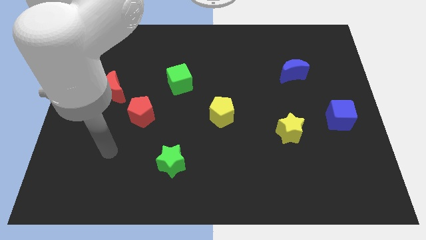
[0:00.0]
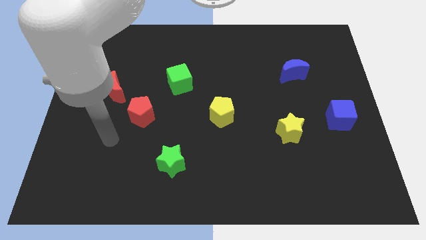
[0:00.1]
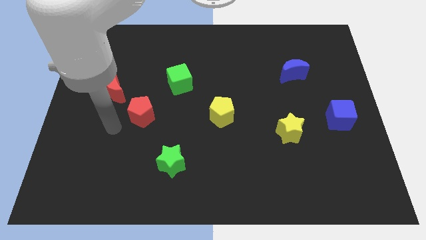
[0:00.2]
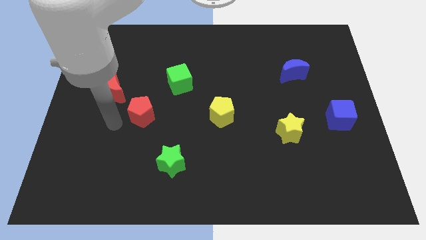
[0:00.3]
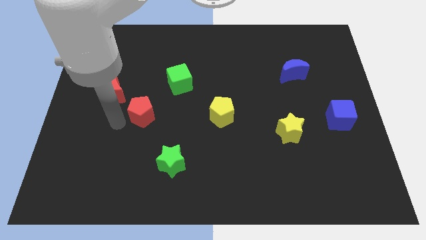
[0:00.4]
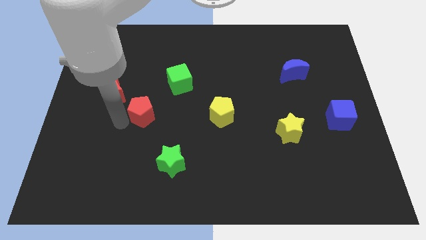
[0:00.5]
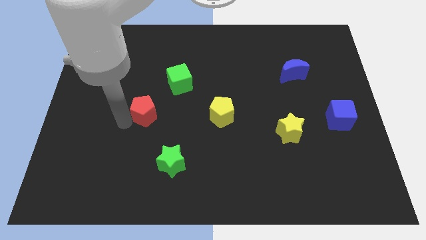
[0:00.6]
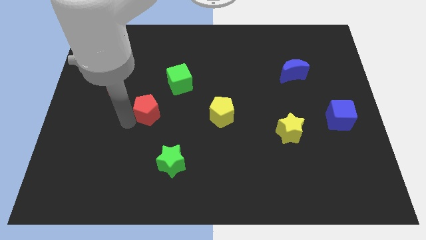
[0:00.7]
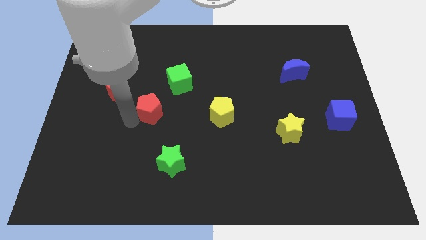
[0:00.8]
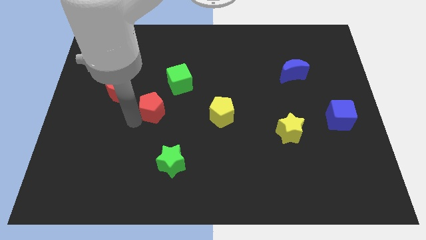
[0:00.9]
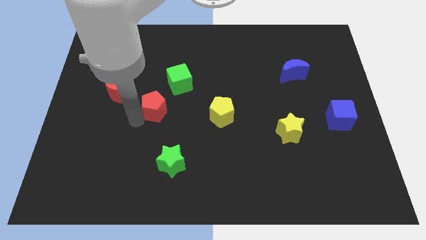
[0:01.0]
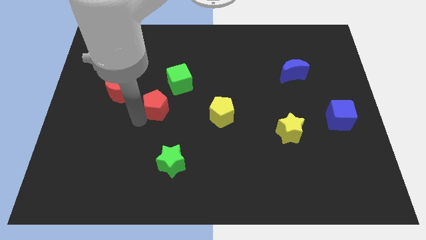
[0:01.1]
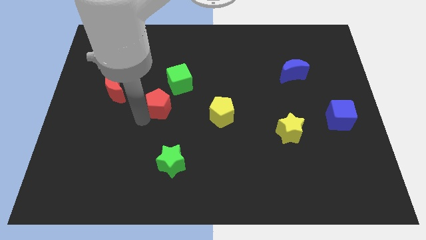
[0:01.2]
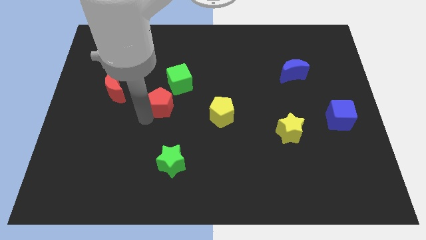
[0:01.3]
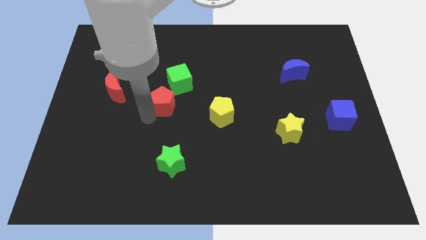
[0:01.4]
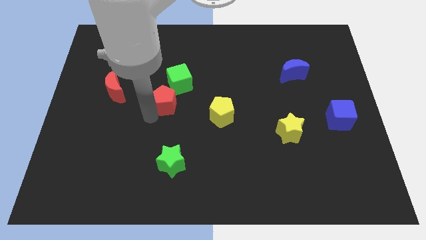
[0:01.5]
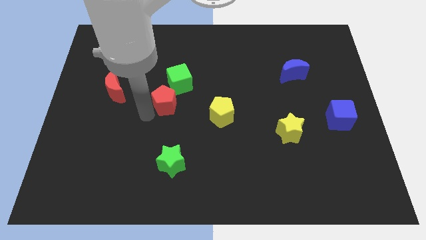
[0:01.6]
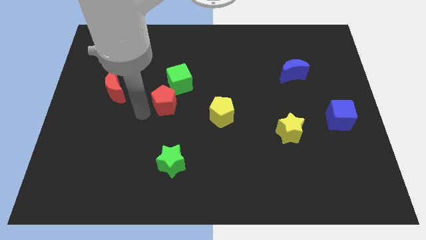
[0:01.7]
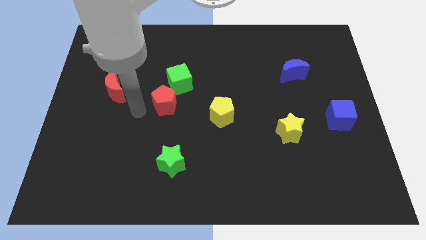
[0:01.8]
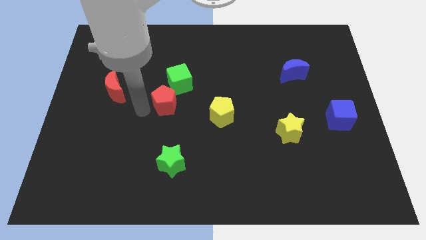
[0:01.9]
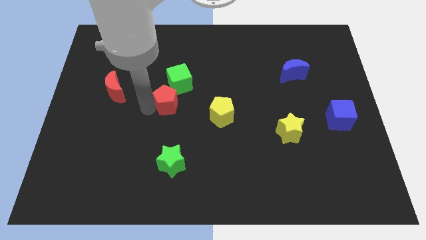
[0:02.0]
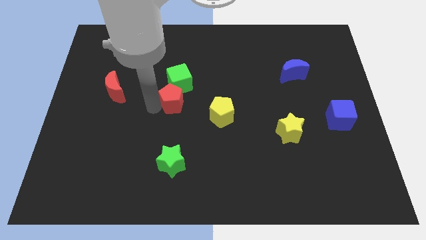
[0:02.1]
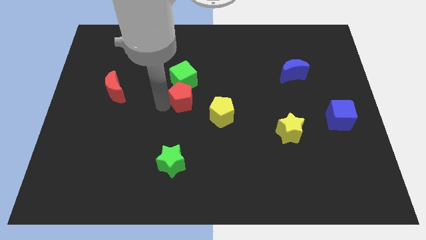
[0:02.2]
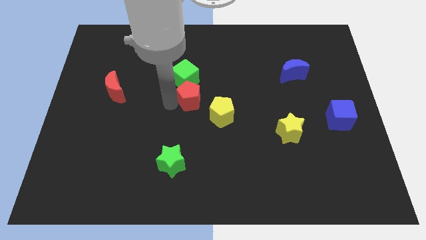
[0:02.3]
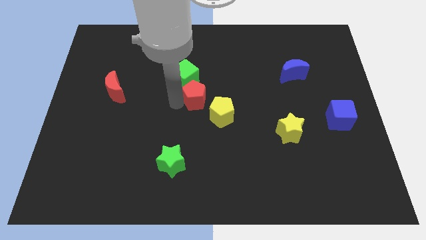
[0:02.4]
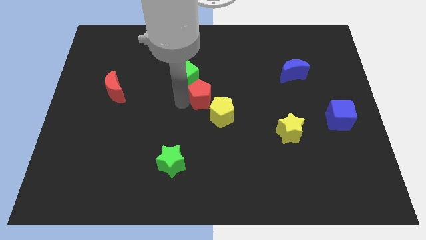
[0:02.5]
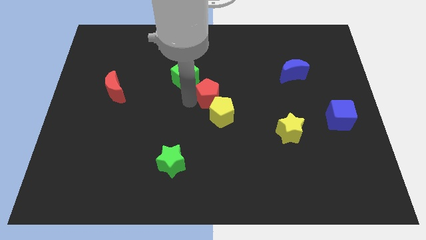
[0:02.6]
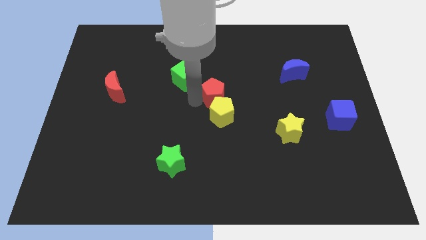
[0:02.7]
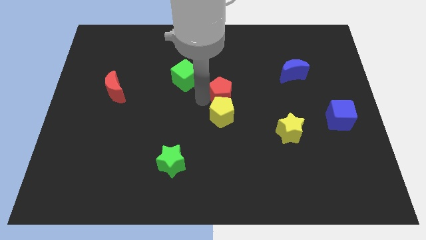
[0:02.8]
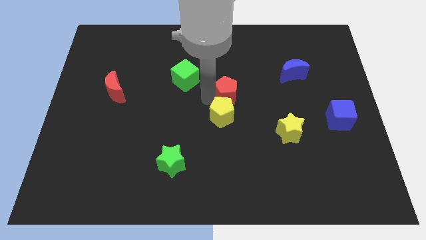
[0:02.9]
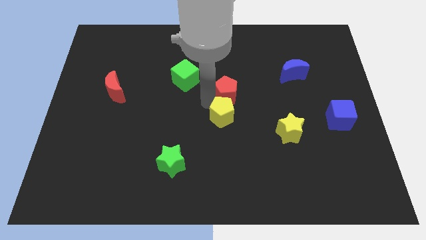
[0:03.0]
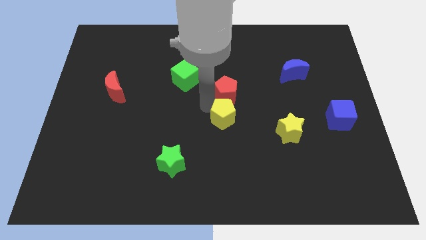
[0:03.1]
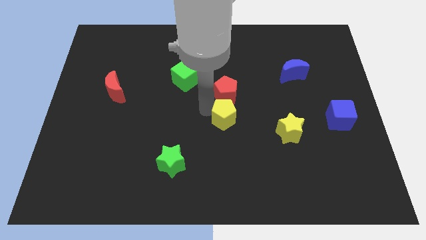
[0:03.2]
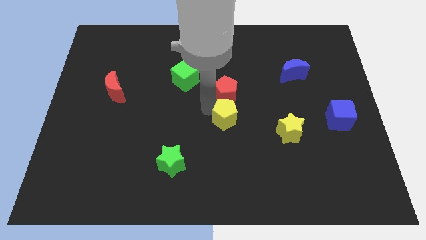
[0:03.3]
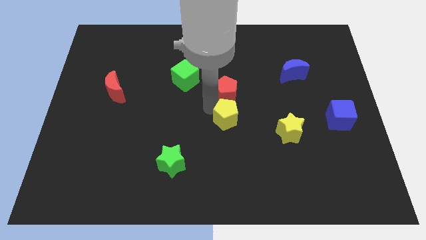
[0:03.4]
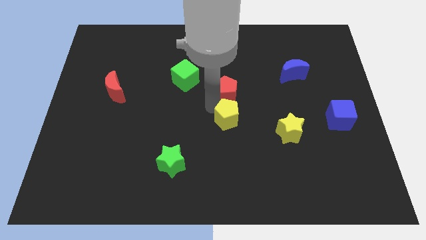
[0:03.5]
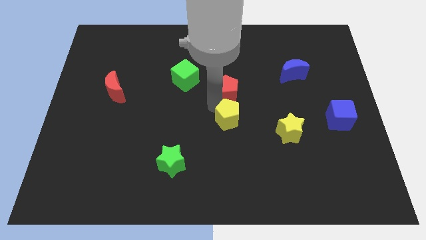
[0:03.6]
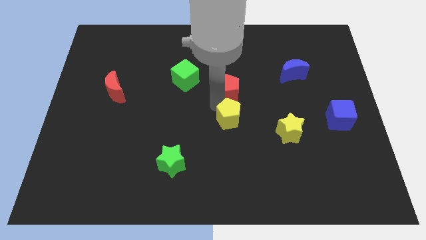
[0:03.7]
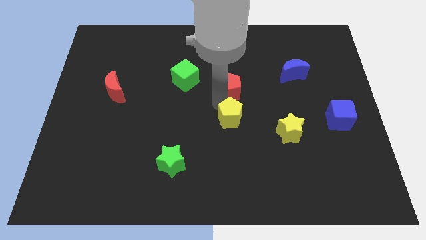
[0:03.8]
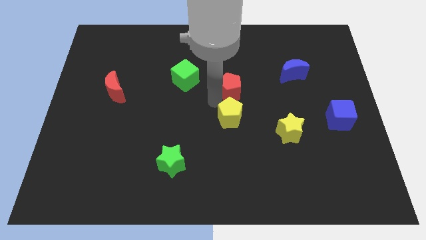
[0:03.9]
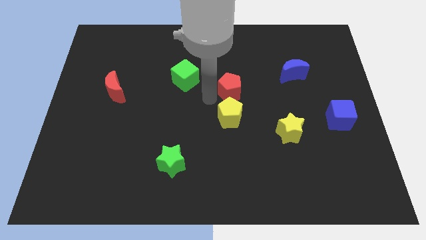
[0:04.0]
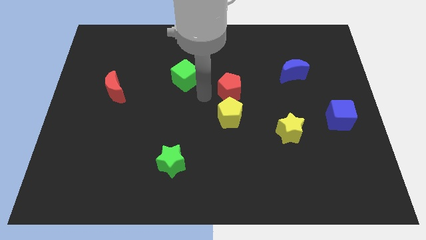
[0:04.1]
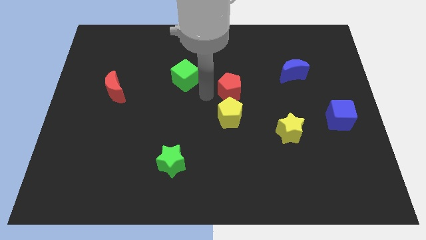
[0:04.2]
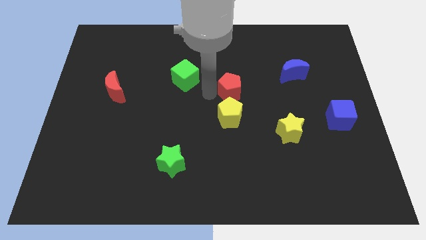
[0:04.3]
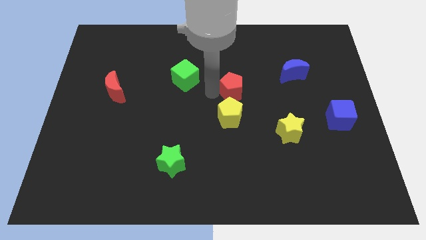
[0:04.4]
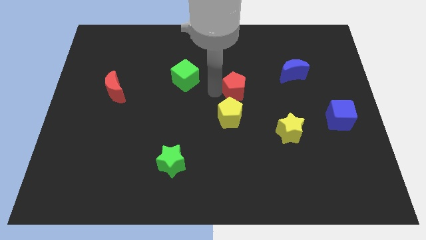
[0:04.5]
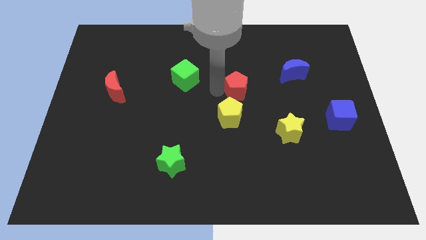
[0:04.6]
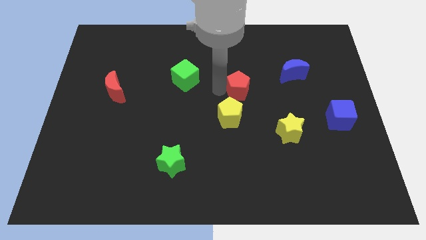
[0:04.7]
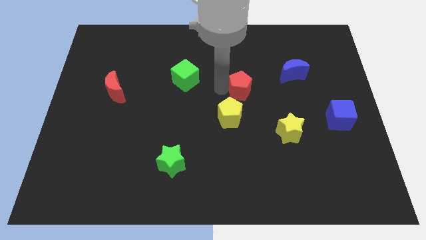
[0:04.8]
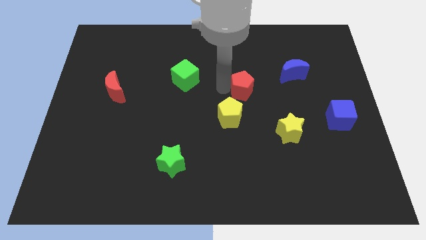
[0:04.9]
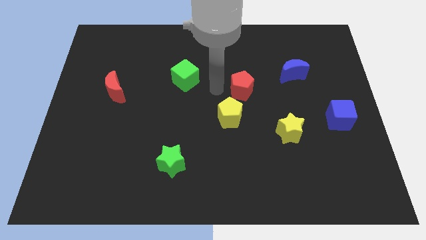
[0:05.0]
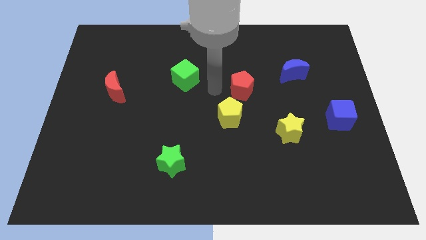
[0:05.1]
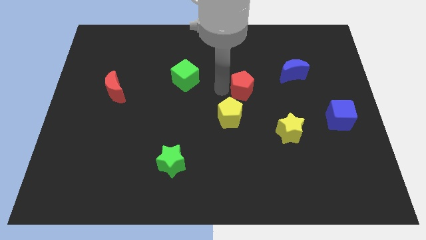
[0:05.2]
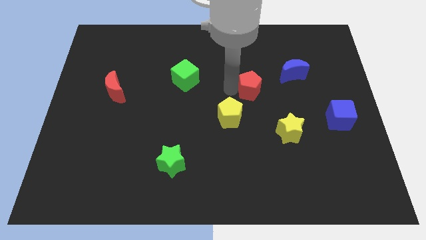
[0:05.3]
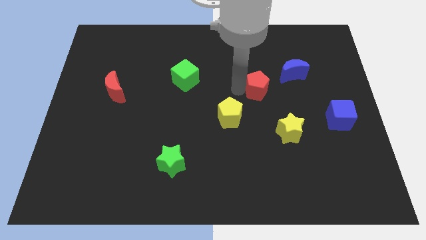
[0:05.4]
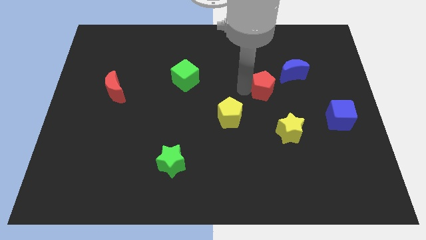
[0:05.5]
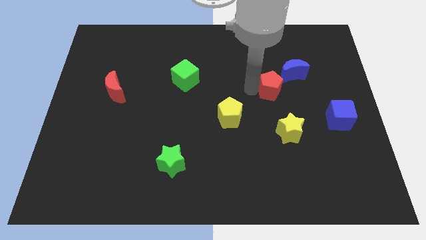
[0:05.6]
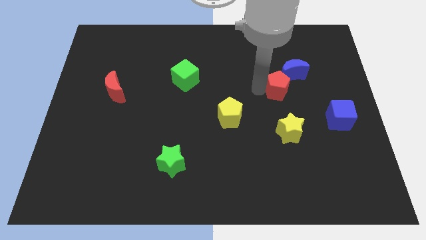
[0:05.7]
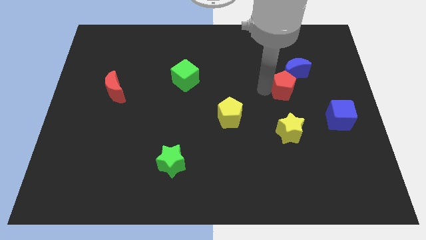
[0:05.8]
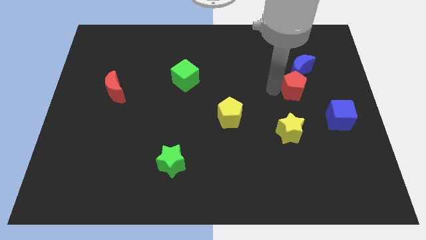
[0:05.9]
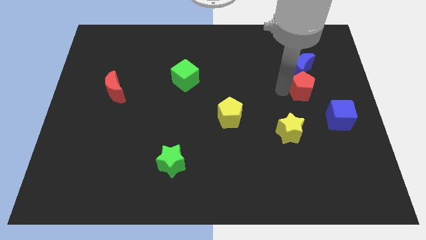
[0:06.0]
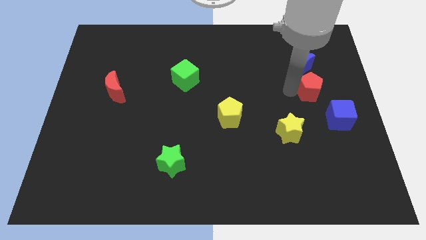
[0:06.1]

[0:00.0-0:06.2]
move the red pentagon diagonally down and to the right of the blue moon

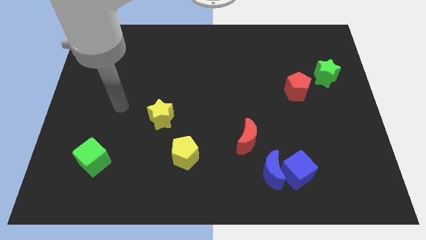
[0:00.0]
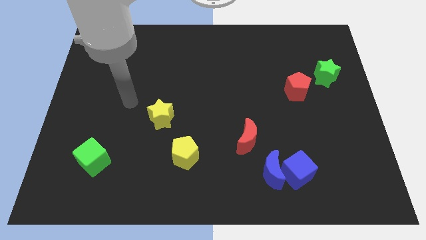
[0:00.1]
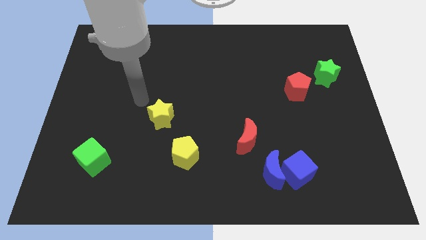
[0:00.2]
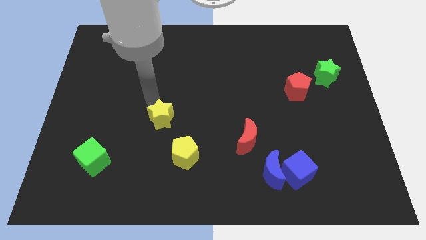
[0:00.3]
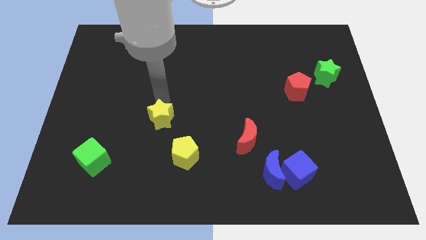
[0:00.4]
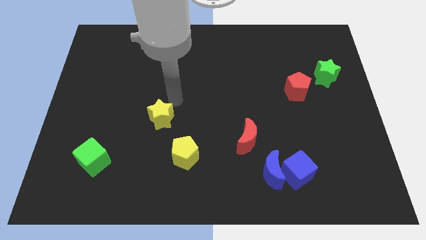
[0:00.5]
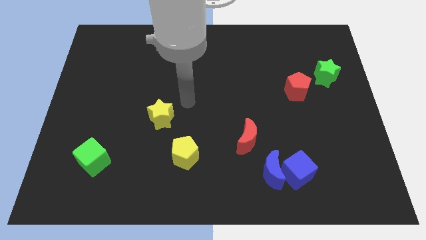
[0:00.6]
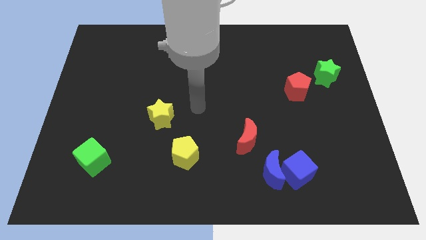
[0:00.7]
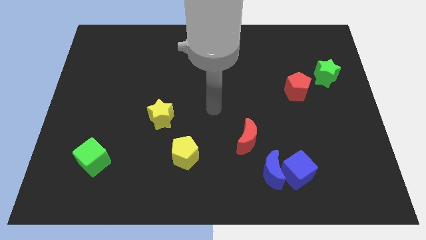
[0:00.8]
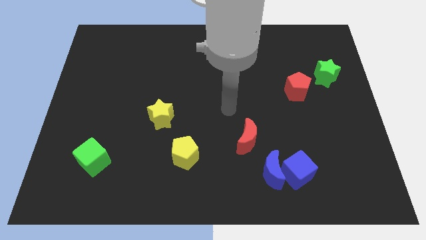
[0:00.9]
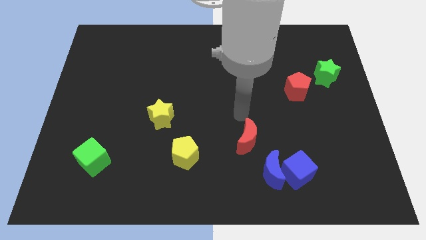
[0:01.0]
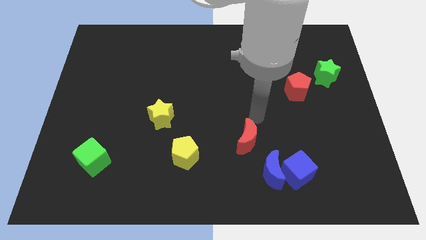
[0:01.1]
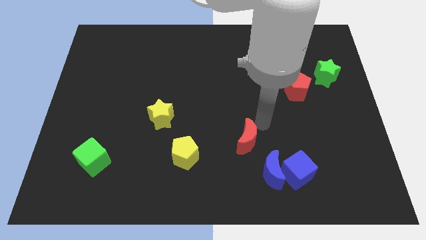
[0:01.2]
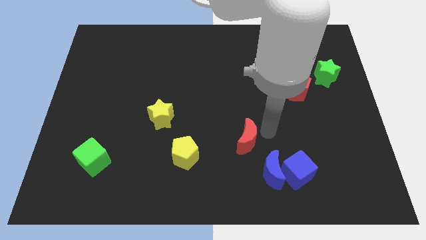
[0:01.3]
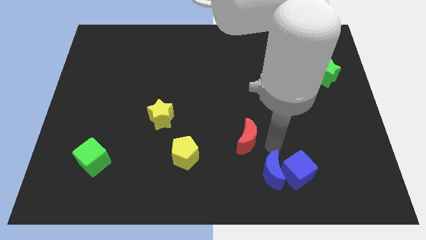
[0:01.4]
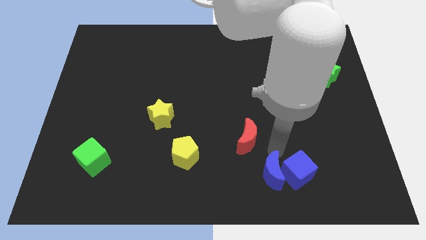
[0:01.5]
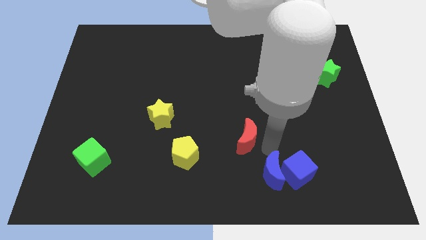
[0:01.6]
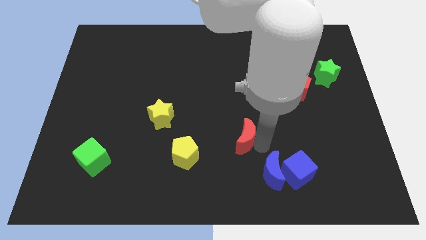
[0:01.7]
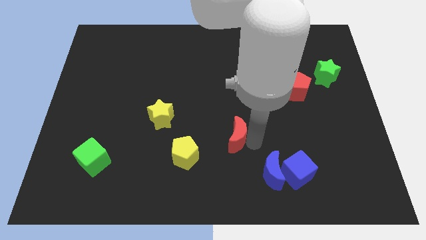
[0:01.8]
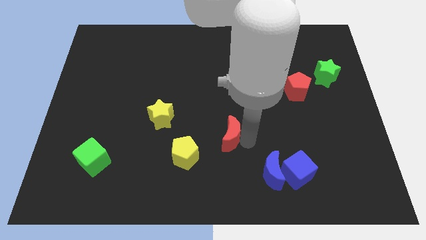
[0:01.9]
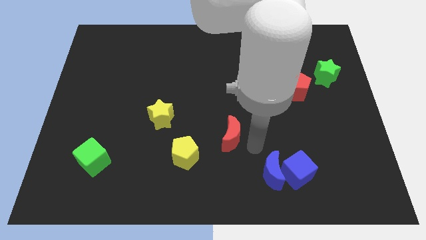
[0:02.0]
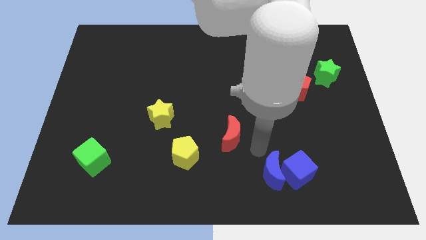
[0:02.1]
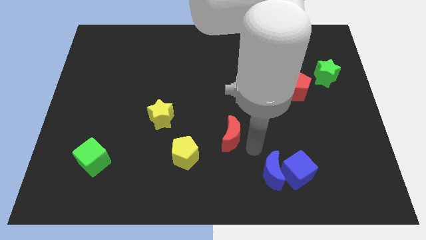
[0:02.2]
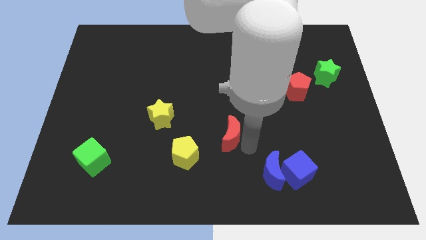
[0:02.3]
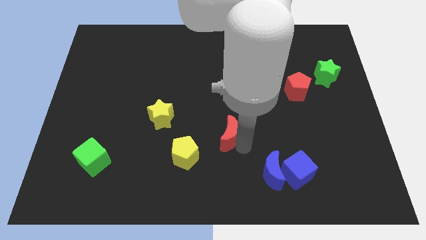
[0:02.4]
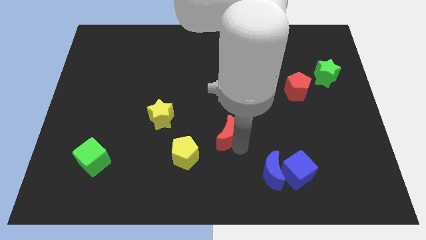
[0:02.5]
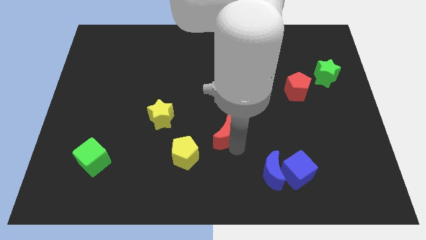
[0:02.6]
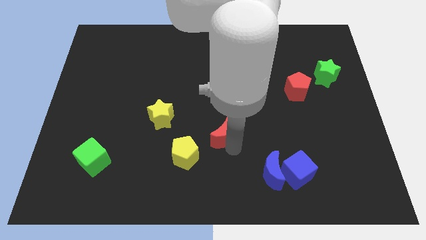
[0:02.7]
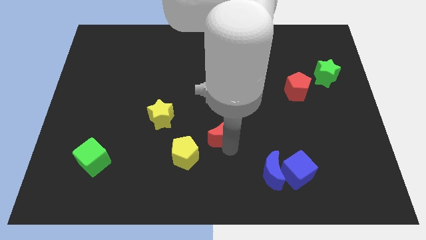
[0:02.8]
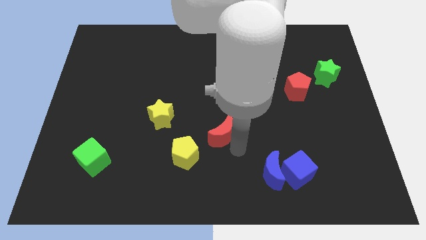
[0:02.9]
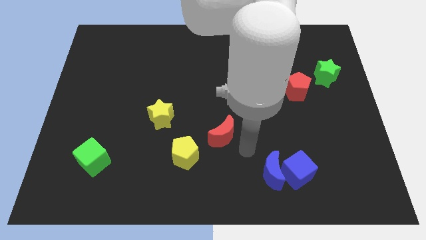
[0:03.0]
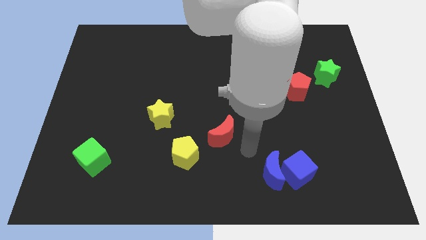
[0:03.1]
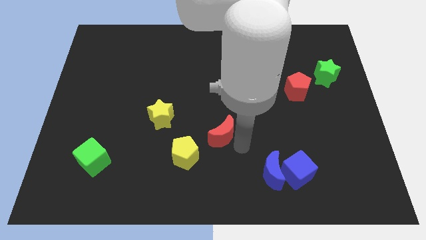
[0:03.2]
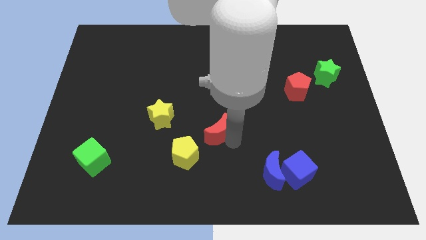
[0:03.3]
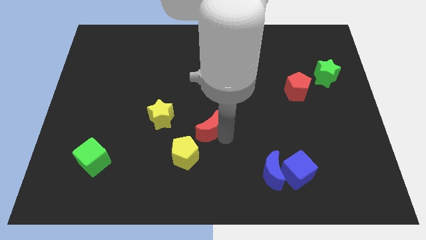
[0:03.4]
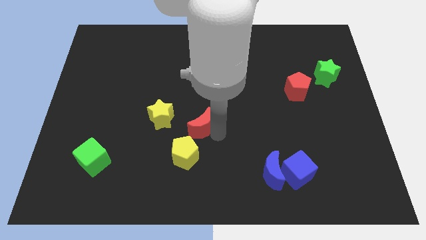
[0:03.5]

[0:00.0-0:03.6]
move the red moon above the yellow pentagon
